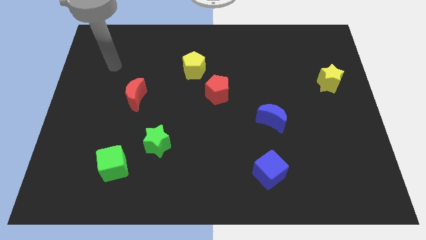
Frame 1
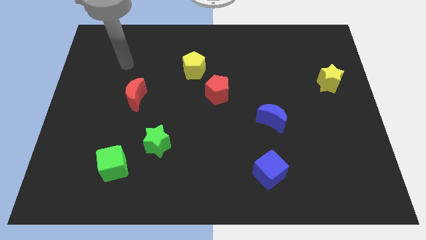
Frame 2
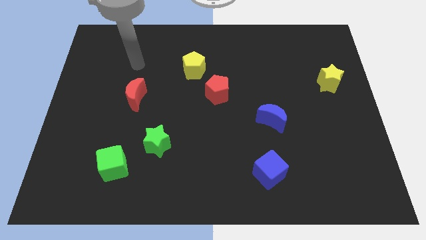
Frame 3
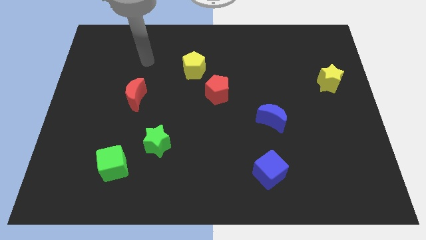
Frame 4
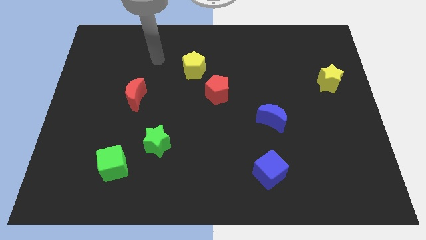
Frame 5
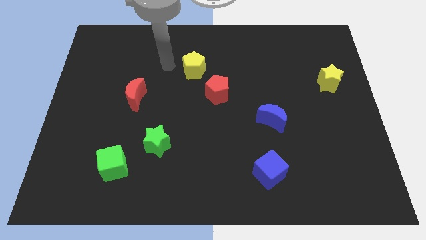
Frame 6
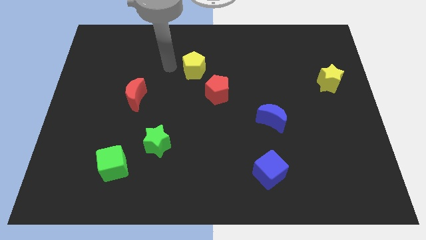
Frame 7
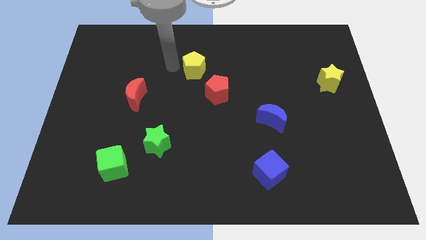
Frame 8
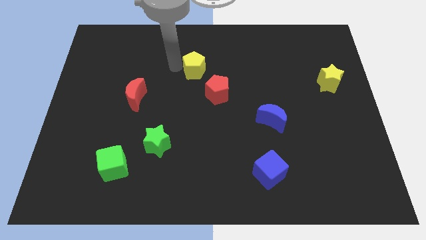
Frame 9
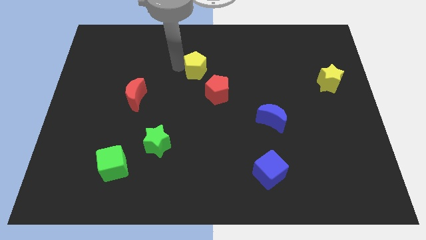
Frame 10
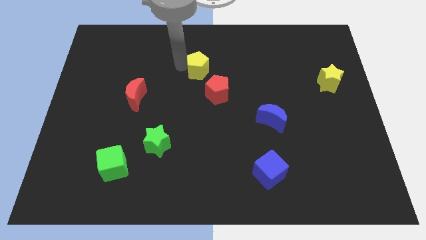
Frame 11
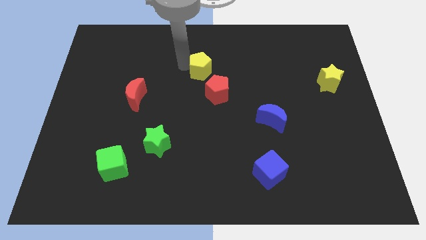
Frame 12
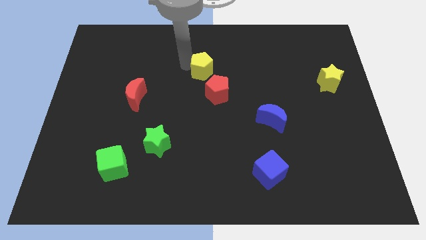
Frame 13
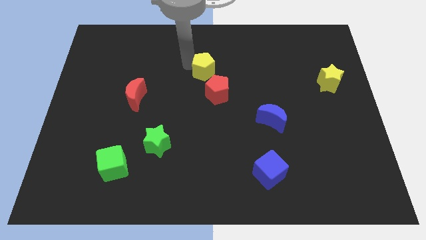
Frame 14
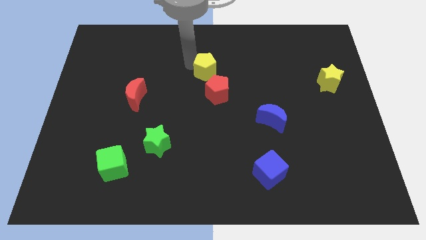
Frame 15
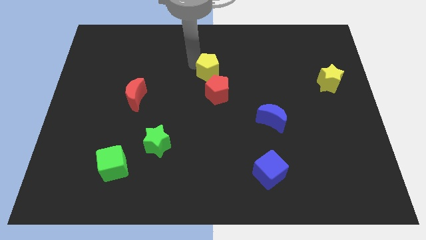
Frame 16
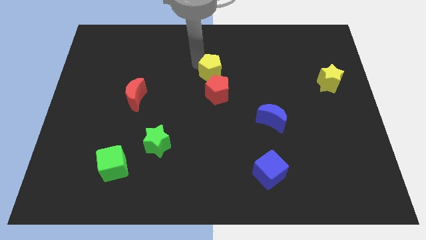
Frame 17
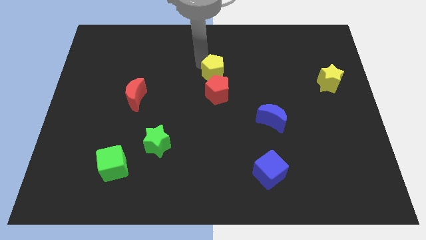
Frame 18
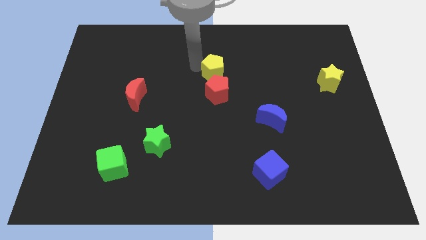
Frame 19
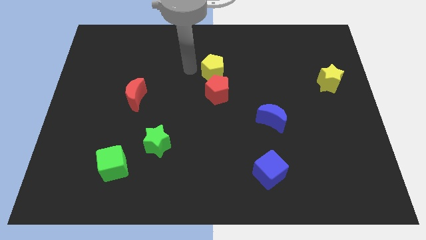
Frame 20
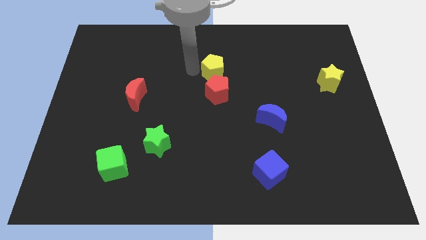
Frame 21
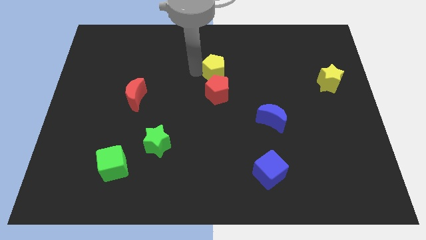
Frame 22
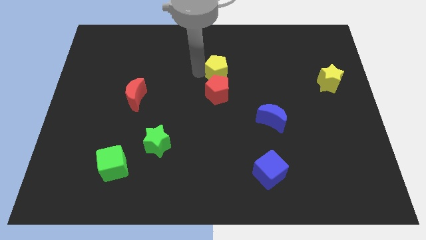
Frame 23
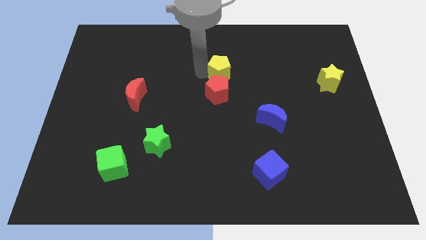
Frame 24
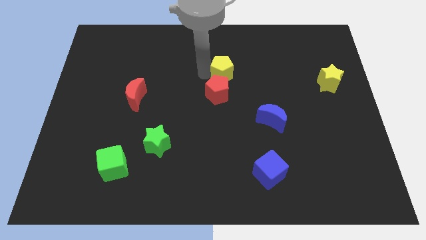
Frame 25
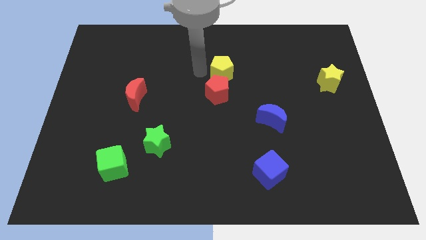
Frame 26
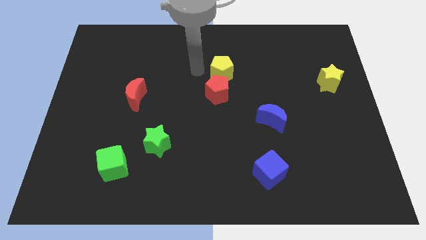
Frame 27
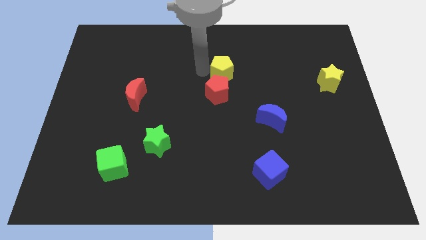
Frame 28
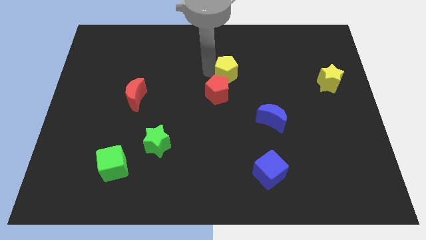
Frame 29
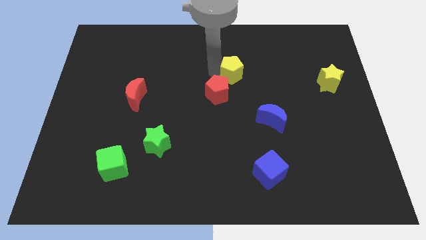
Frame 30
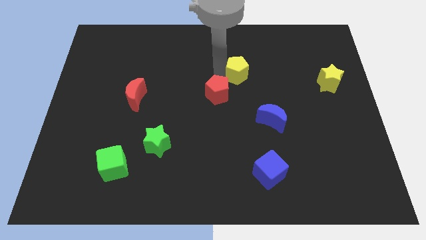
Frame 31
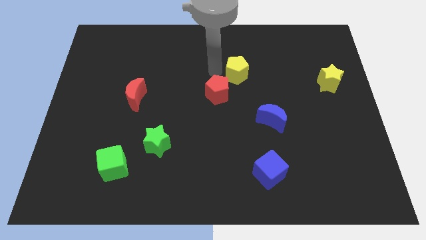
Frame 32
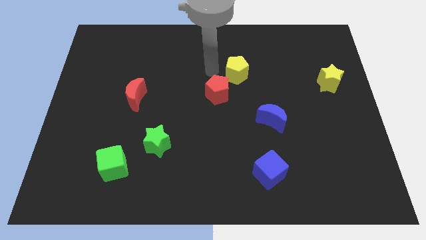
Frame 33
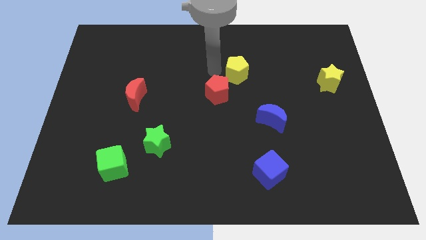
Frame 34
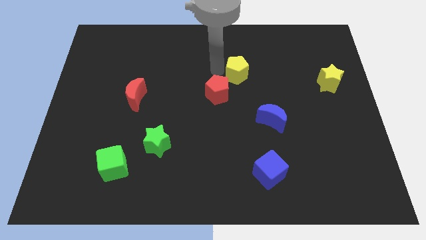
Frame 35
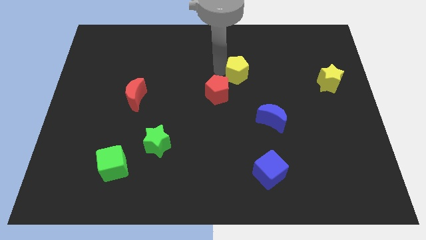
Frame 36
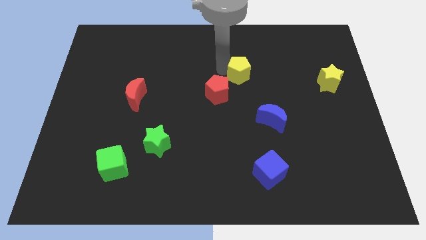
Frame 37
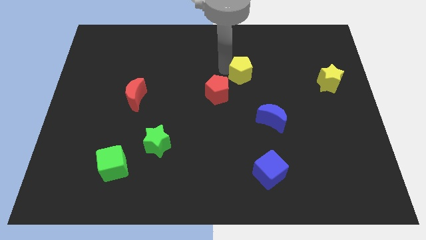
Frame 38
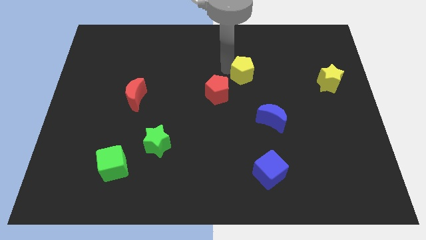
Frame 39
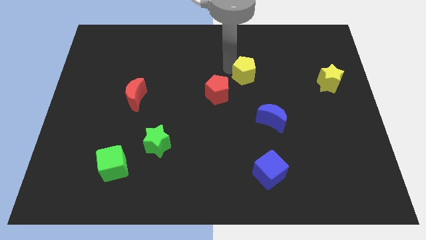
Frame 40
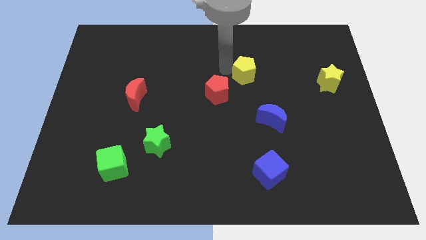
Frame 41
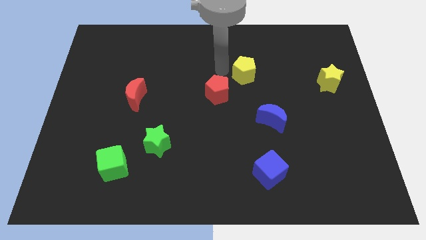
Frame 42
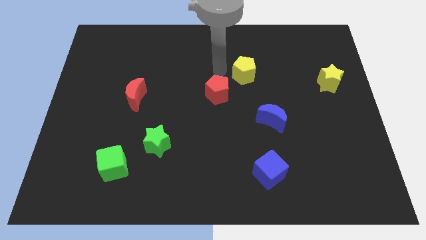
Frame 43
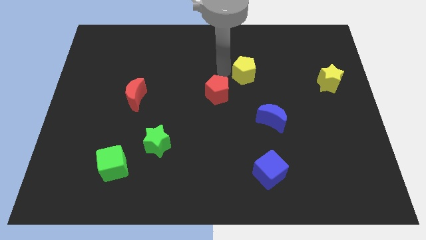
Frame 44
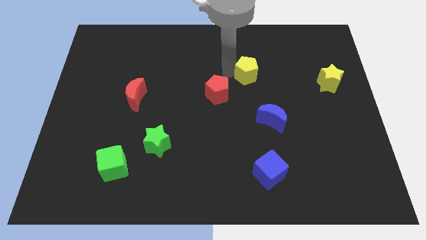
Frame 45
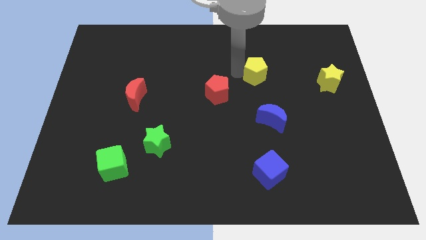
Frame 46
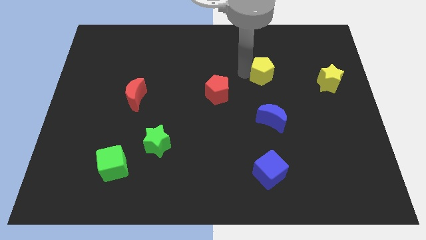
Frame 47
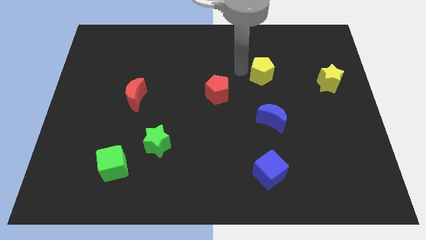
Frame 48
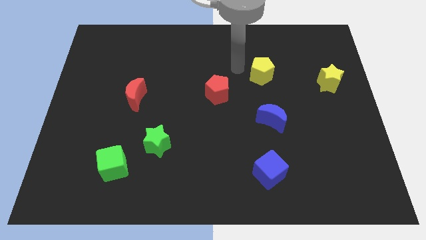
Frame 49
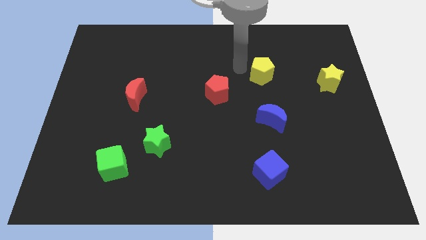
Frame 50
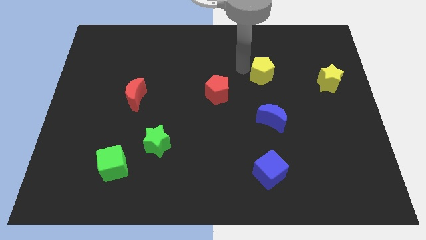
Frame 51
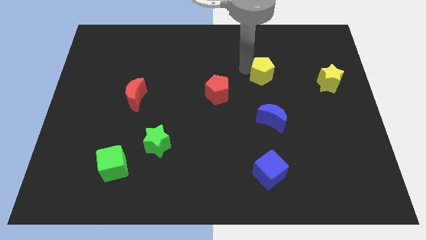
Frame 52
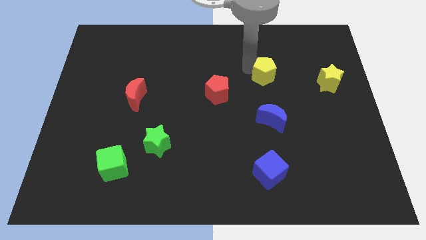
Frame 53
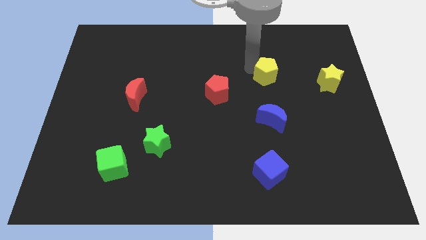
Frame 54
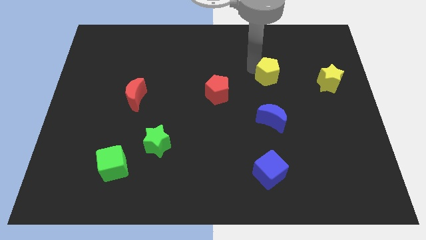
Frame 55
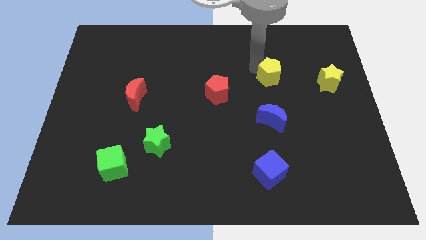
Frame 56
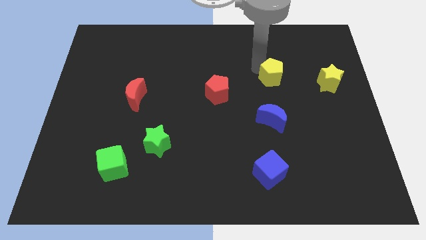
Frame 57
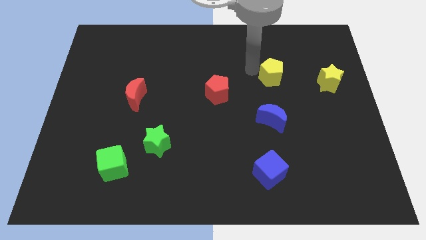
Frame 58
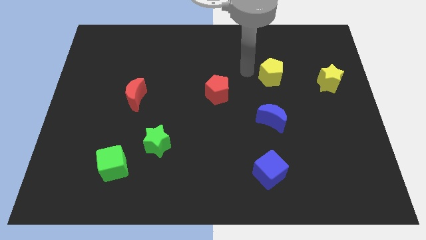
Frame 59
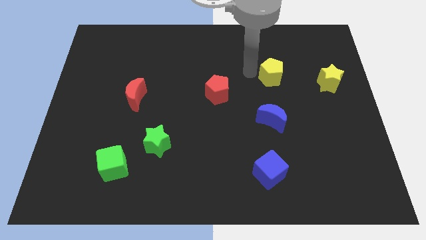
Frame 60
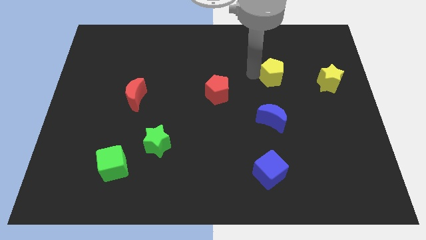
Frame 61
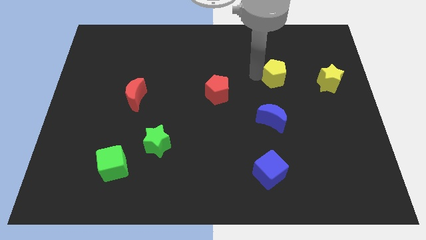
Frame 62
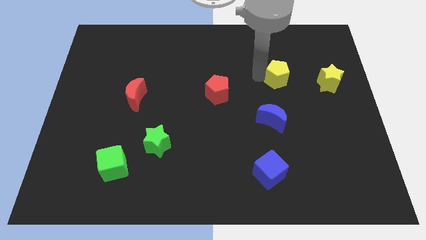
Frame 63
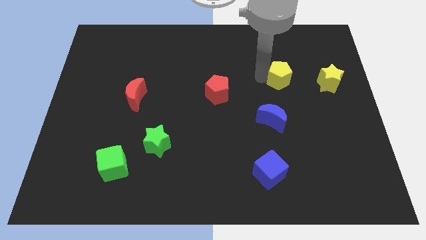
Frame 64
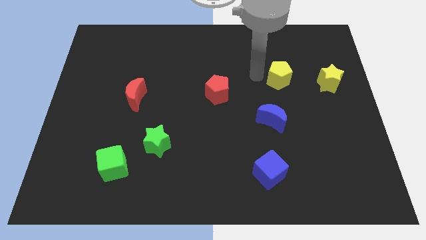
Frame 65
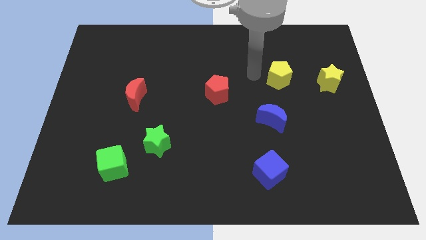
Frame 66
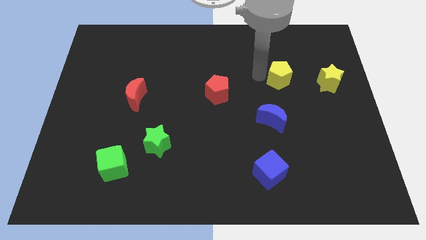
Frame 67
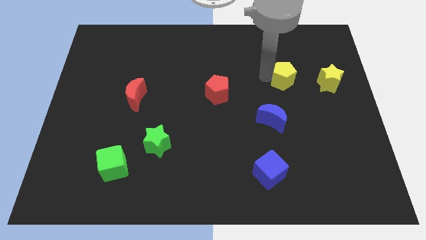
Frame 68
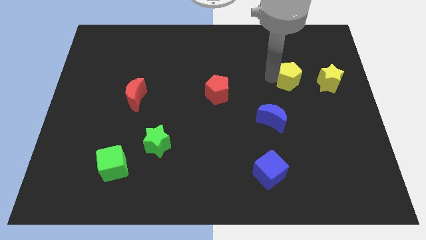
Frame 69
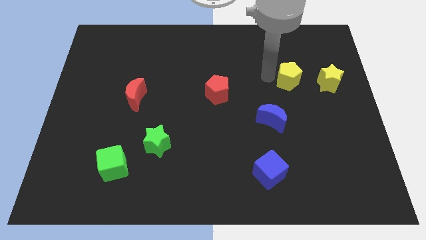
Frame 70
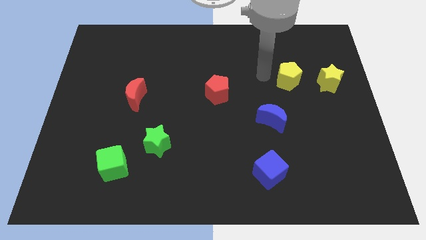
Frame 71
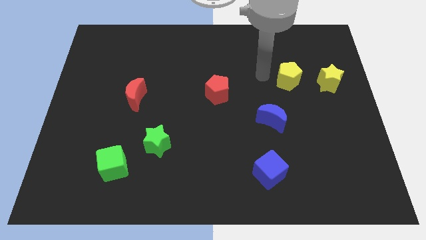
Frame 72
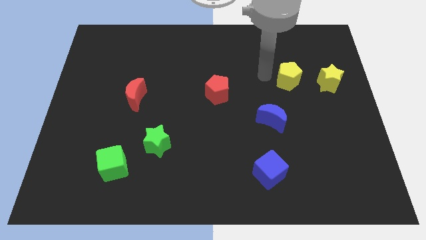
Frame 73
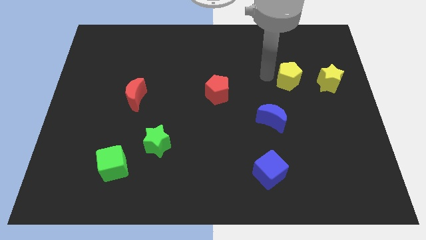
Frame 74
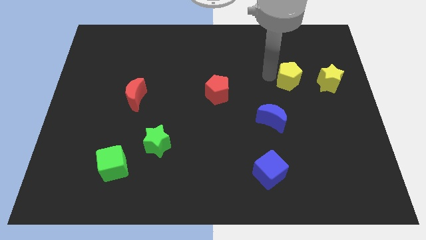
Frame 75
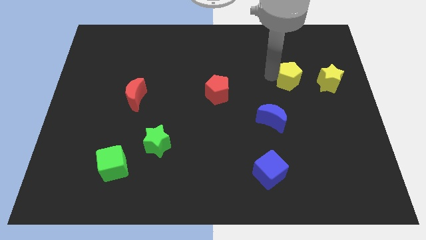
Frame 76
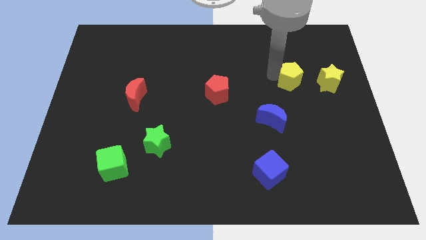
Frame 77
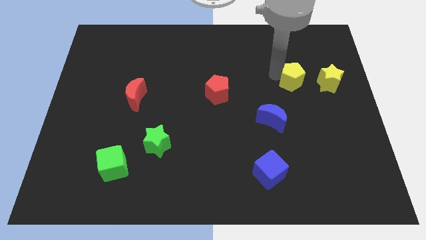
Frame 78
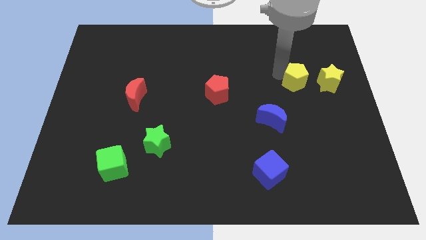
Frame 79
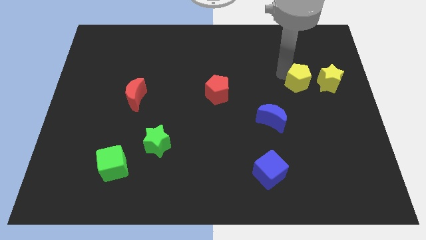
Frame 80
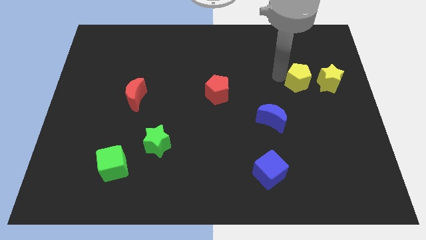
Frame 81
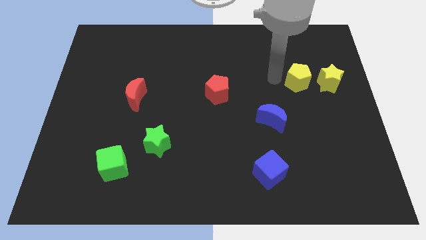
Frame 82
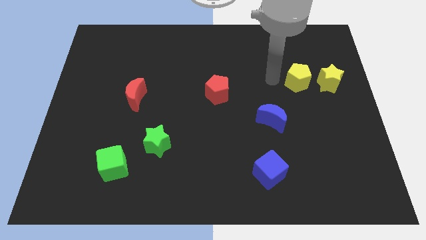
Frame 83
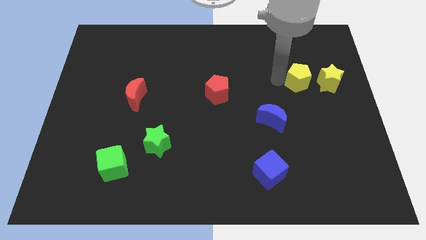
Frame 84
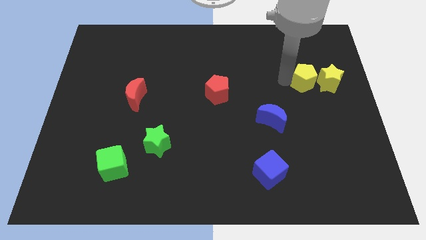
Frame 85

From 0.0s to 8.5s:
push the yellow pentagon towards the yellow star
